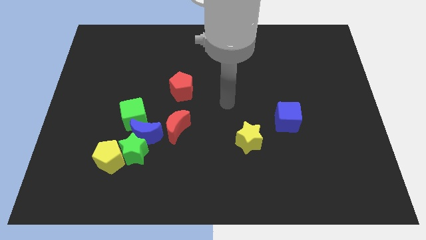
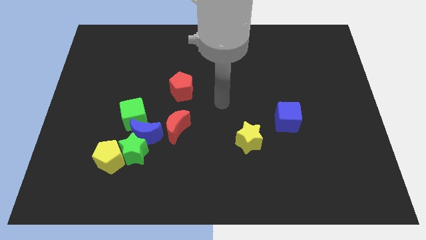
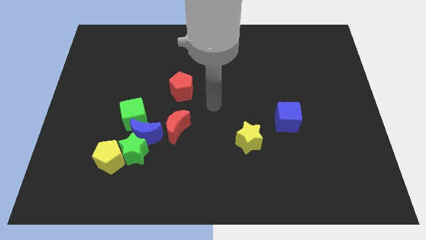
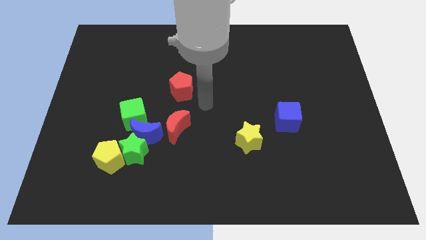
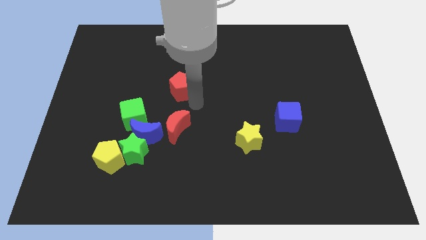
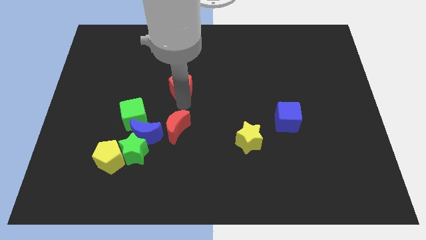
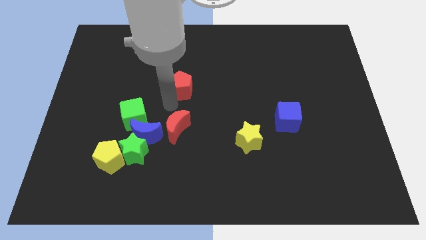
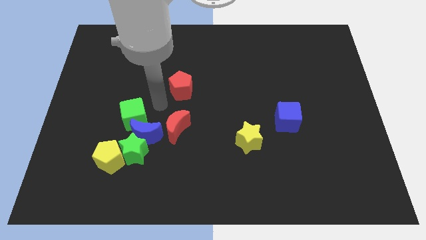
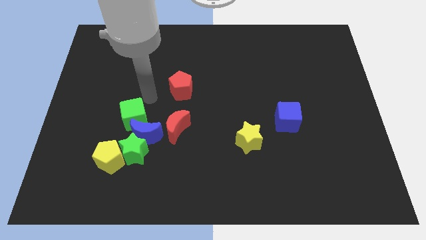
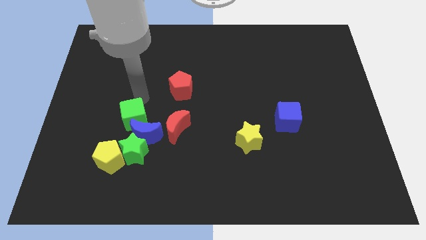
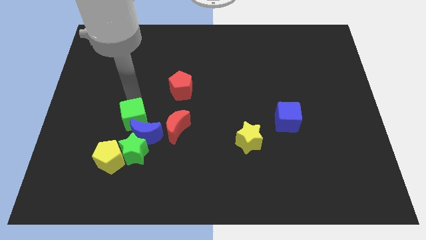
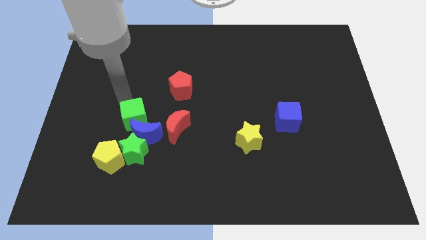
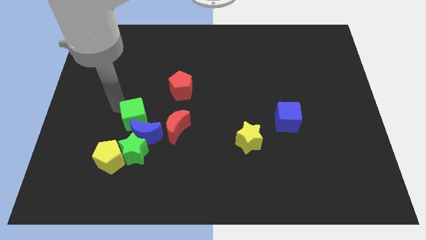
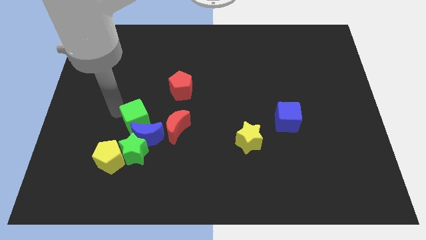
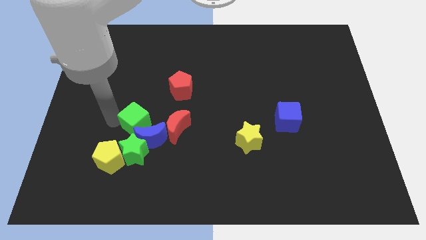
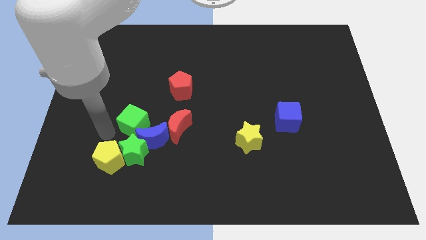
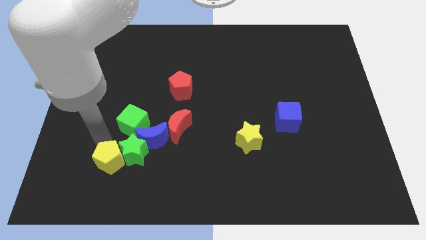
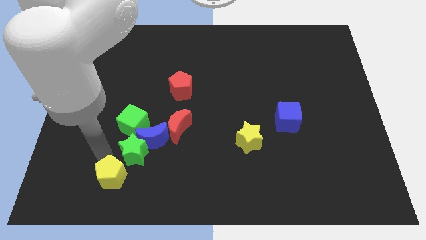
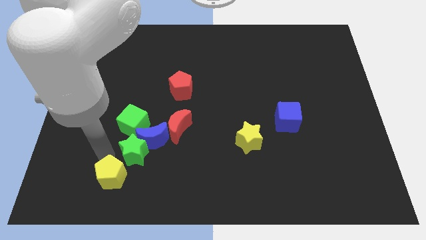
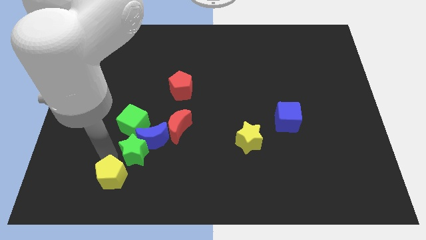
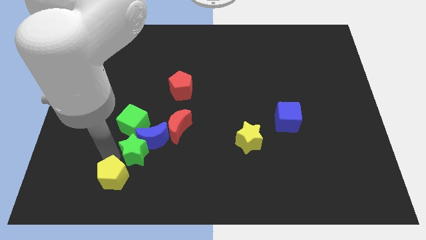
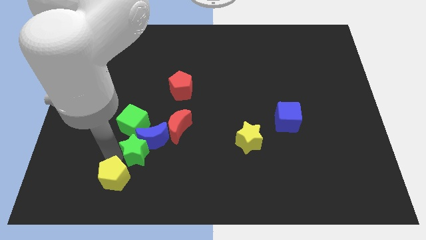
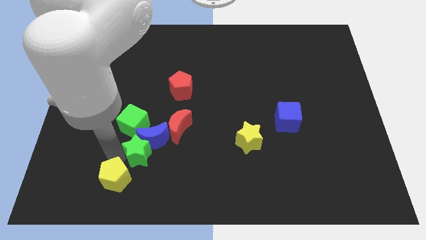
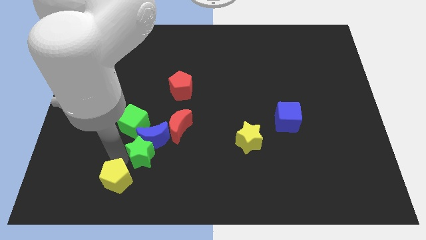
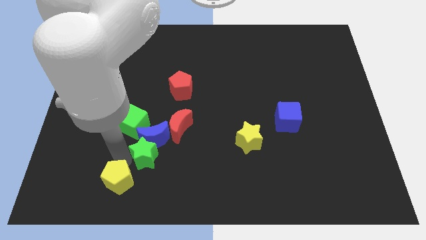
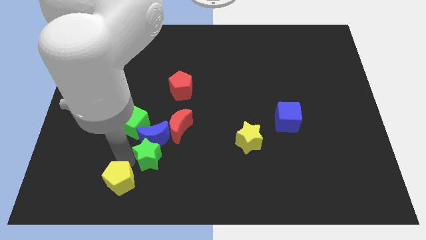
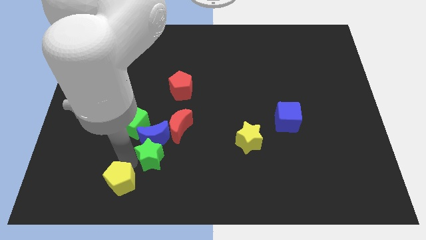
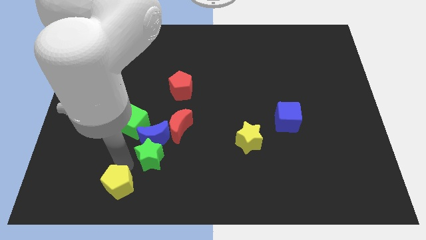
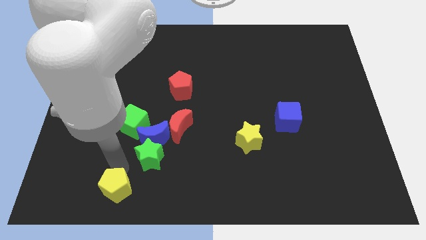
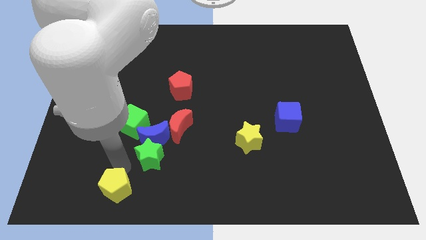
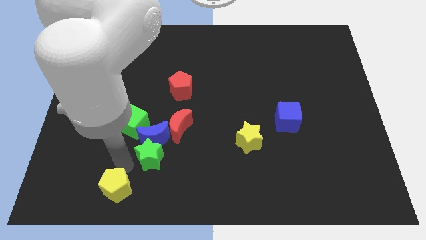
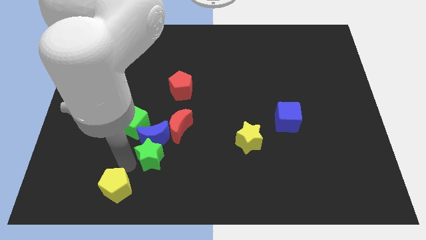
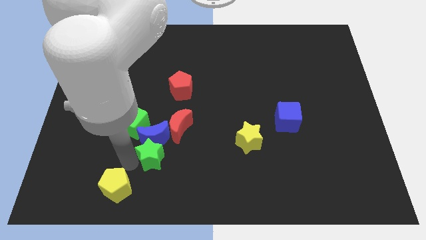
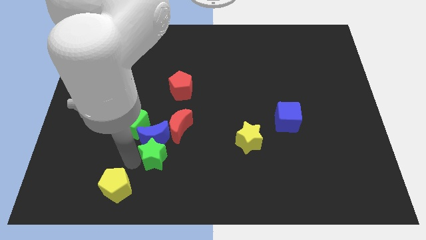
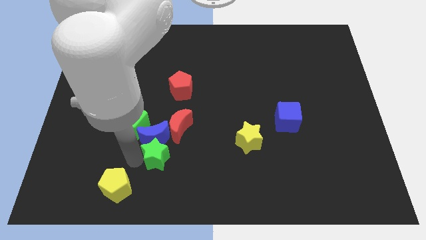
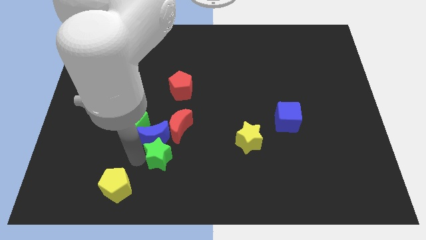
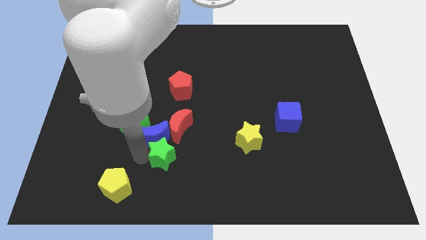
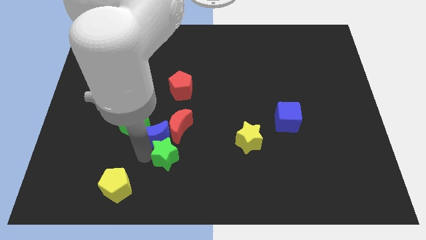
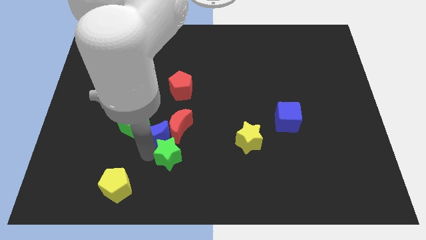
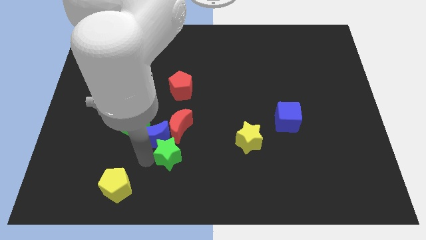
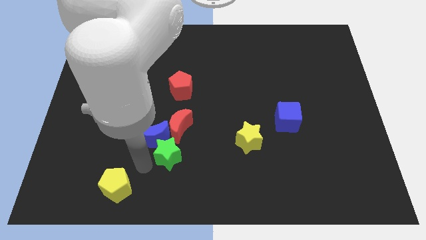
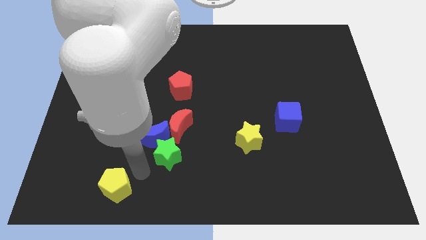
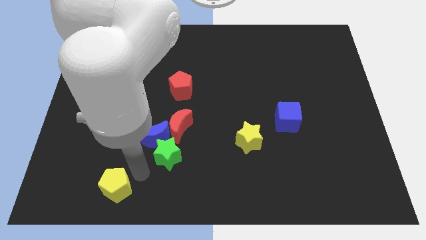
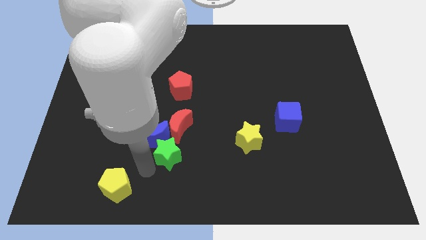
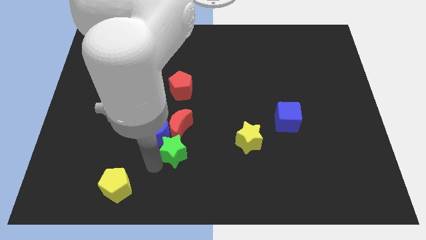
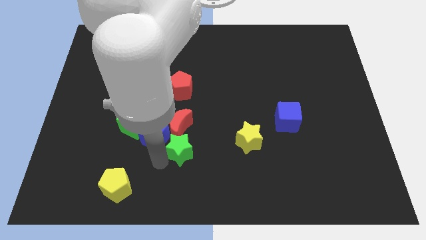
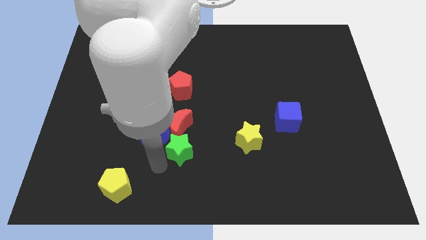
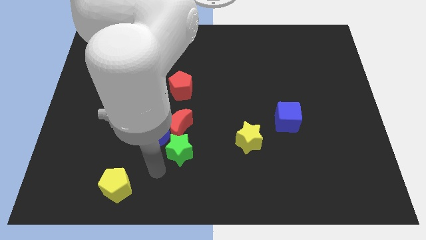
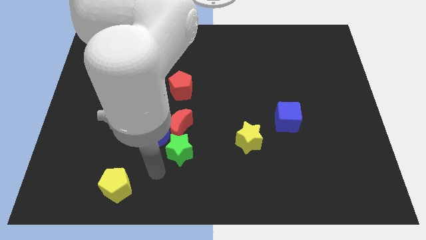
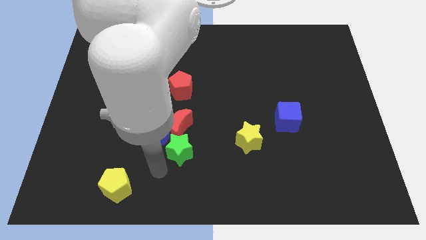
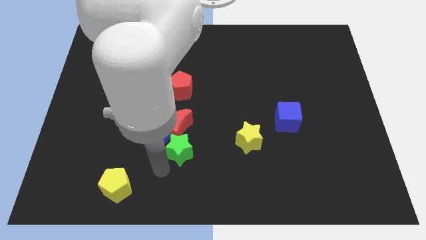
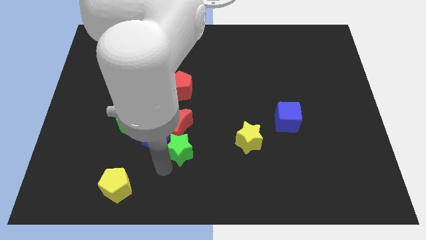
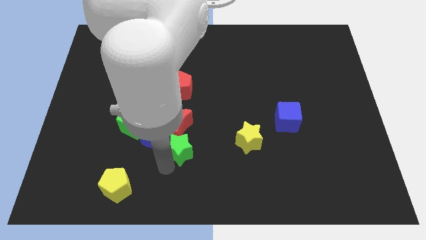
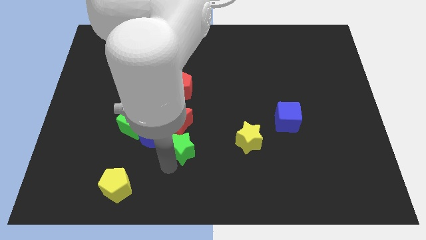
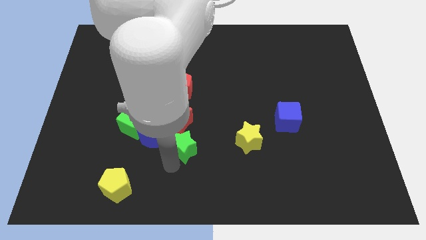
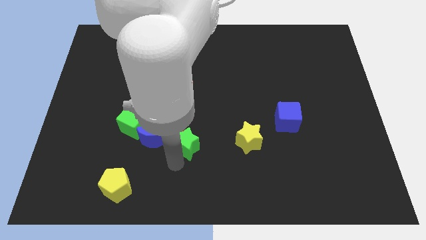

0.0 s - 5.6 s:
push the green star up and right slightly

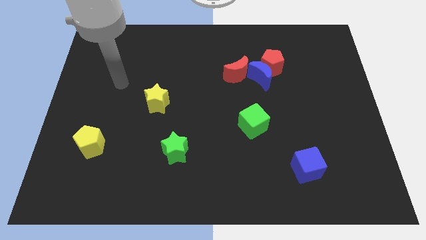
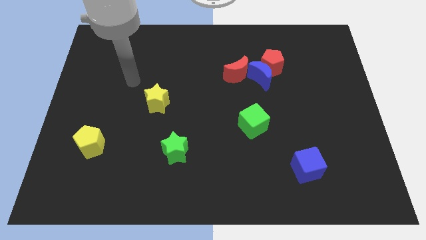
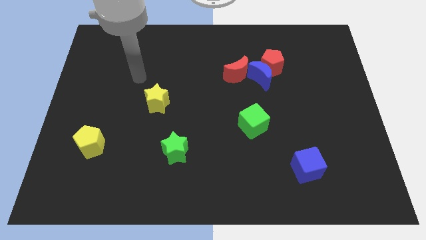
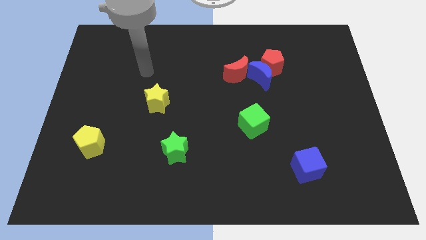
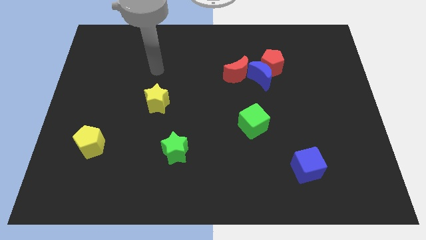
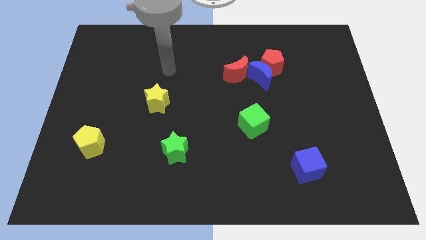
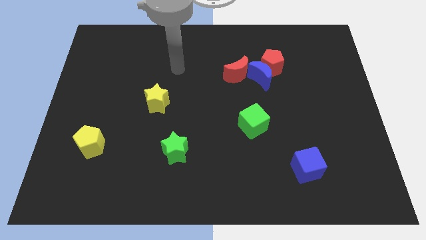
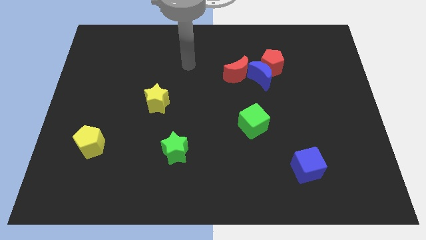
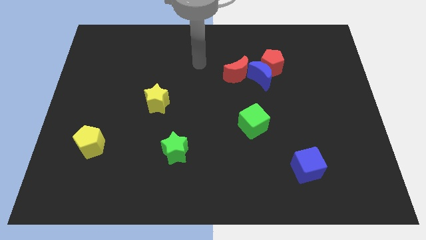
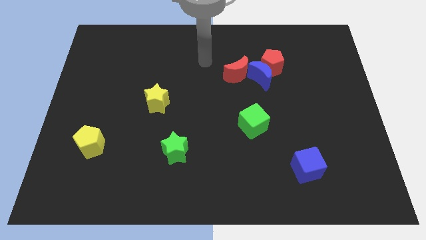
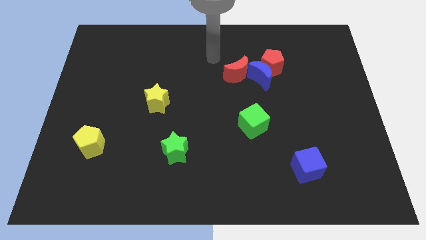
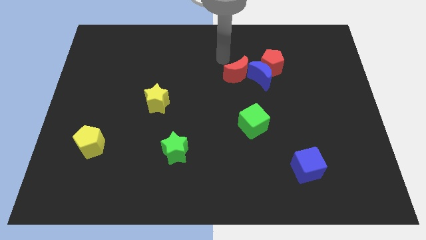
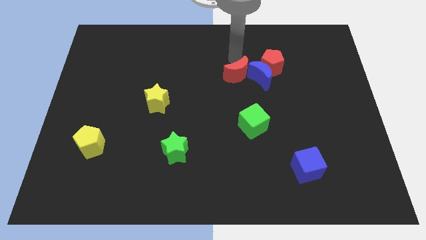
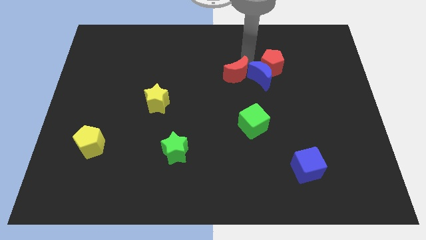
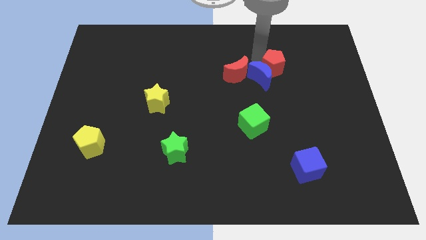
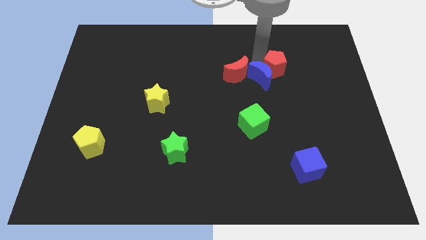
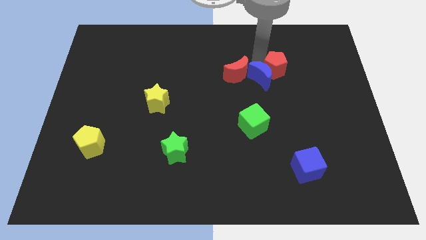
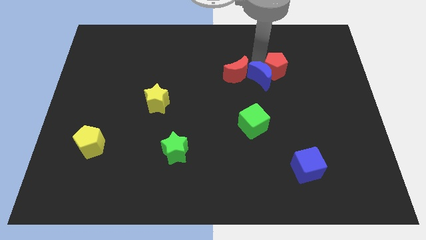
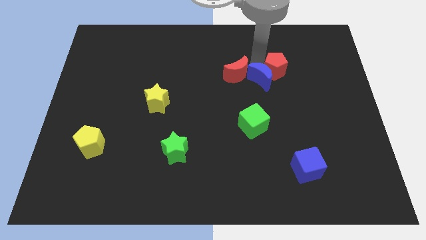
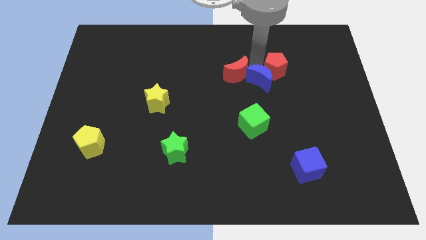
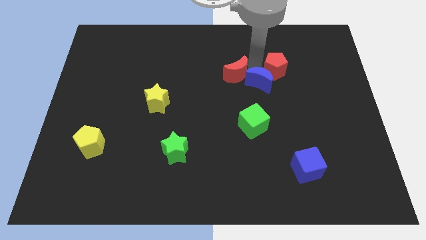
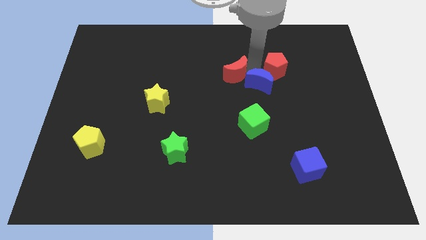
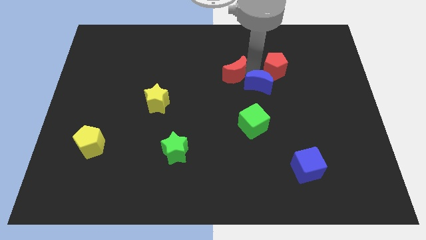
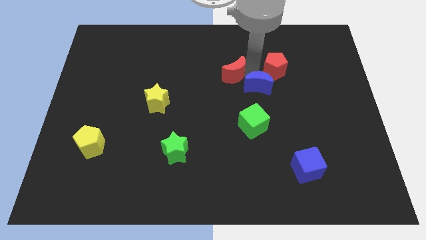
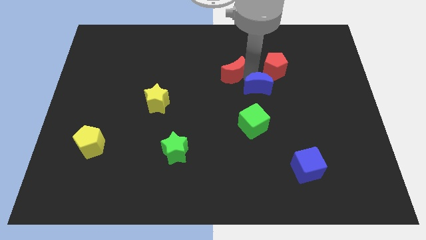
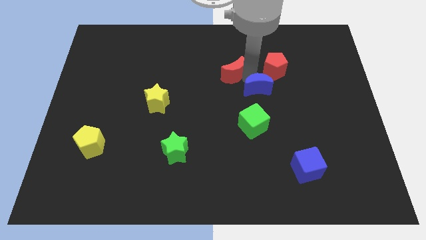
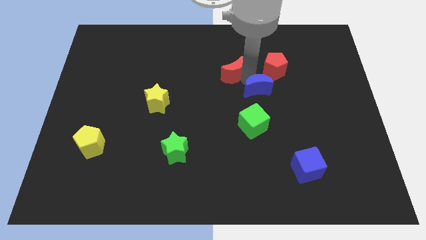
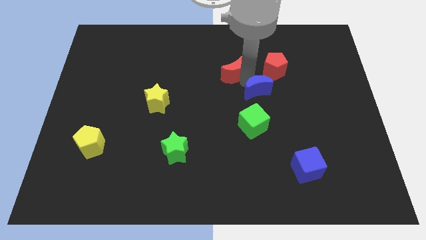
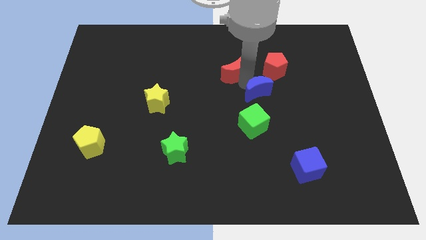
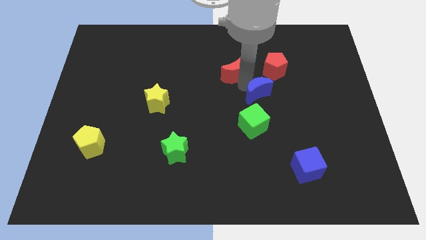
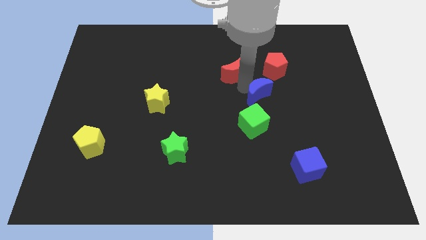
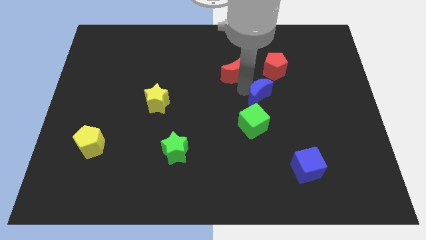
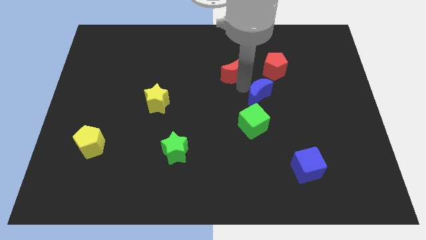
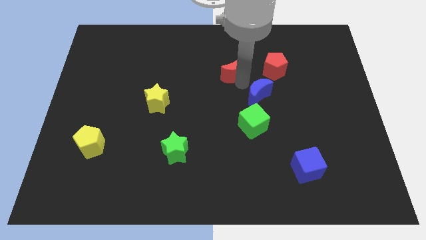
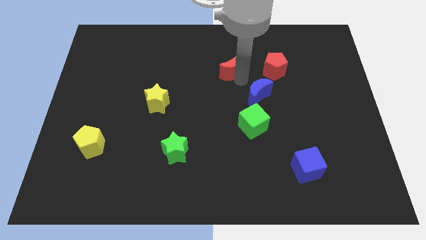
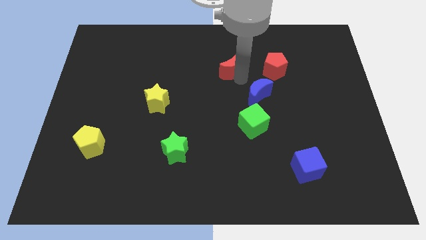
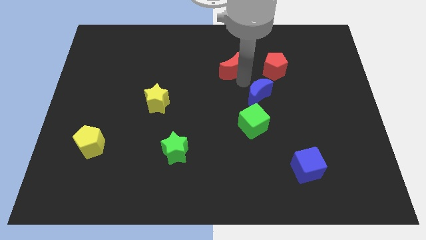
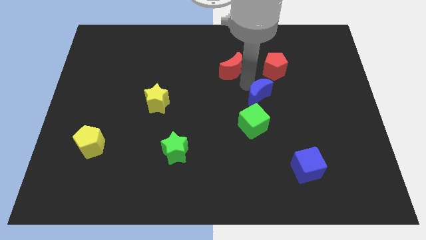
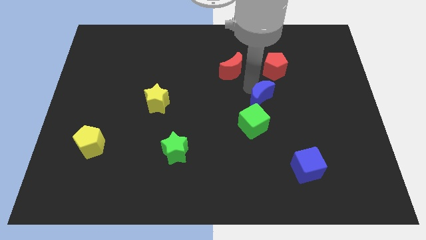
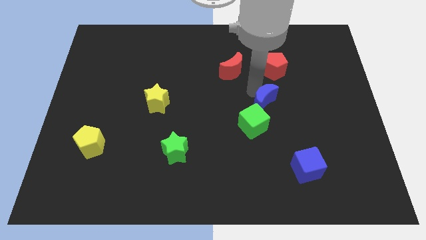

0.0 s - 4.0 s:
slide the blue moon a bit down
